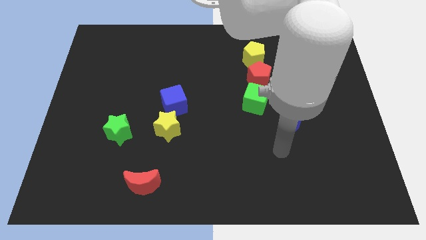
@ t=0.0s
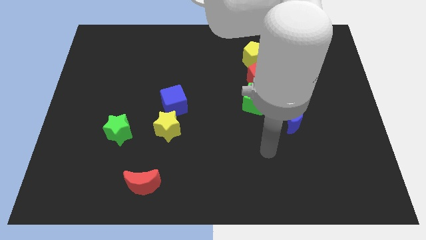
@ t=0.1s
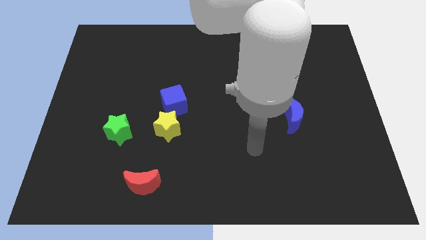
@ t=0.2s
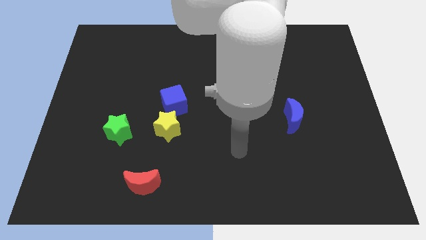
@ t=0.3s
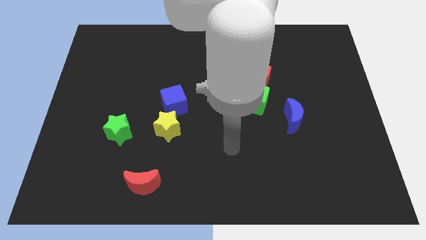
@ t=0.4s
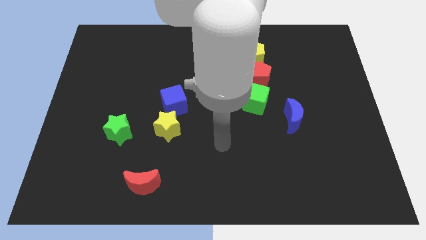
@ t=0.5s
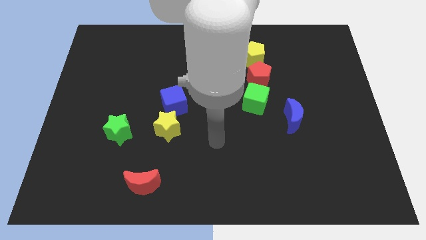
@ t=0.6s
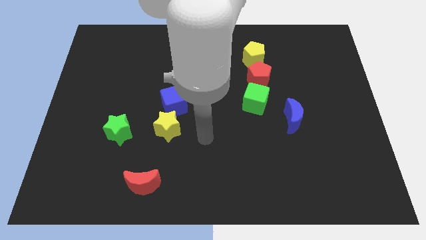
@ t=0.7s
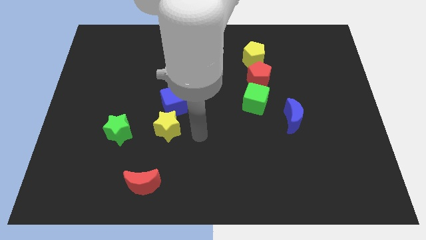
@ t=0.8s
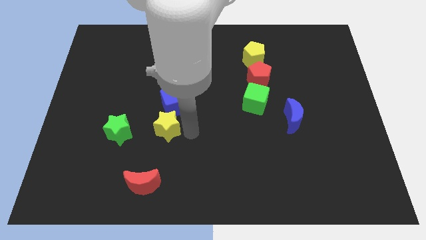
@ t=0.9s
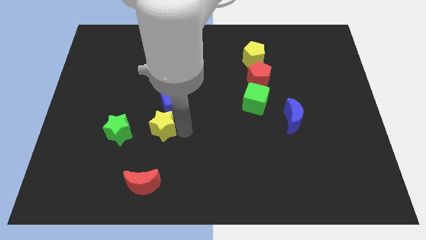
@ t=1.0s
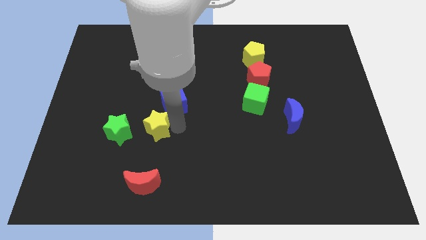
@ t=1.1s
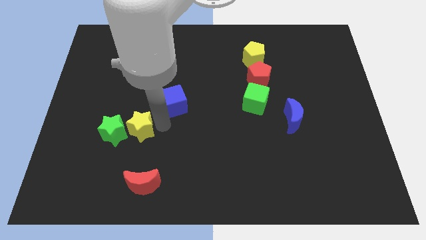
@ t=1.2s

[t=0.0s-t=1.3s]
move the blue cube away from the yellow star

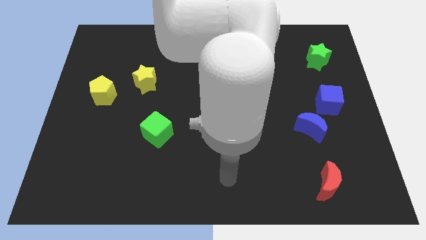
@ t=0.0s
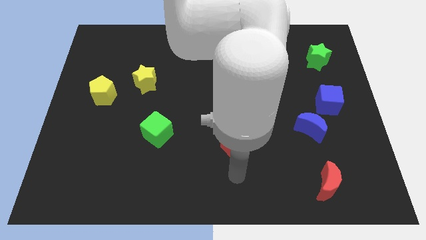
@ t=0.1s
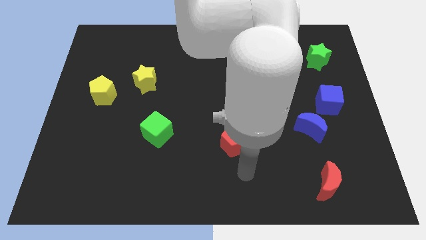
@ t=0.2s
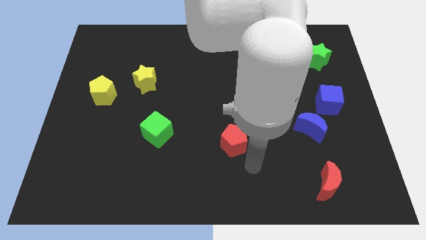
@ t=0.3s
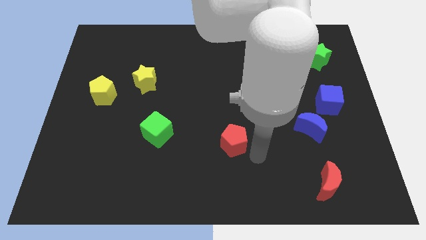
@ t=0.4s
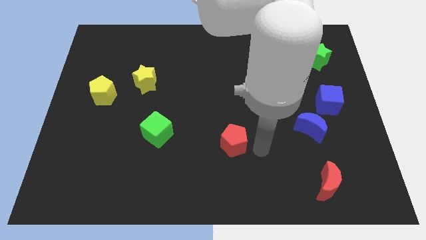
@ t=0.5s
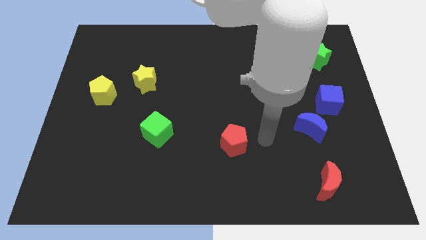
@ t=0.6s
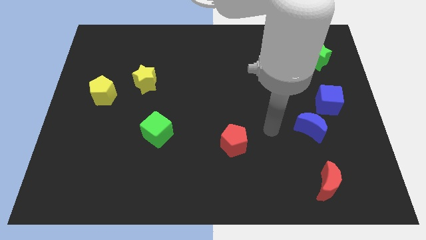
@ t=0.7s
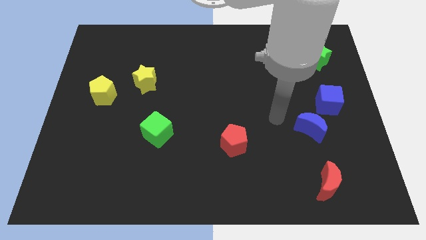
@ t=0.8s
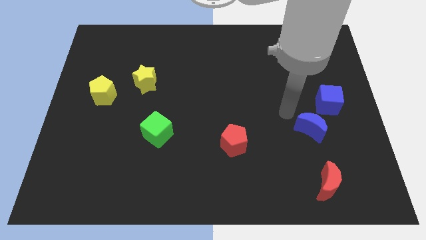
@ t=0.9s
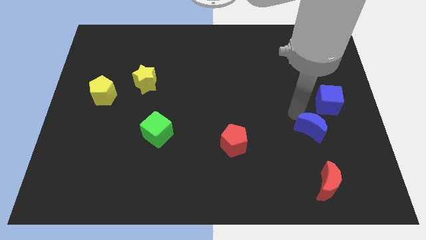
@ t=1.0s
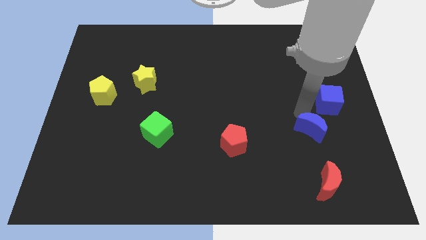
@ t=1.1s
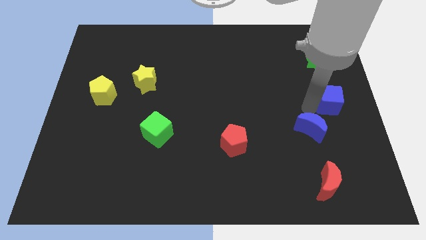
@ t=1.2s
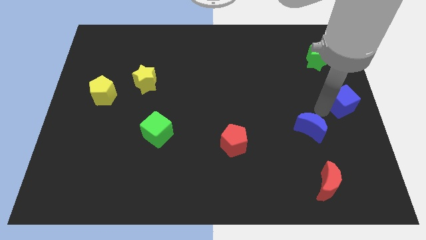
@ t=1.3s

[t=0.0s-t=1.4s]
separate the blue moon from the blue cube

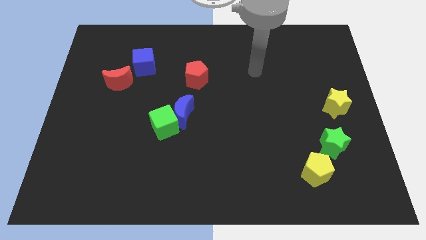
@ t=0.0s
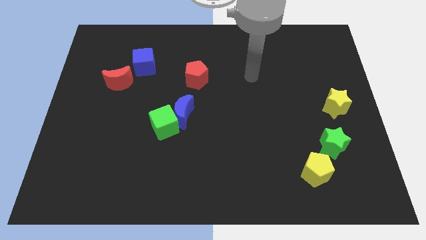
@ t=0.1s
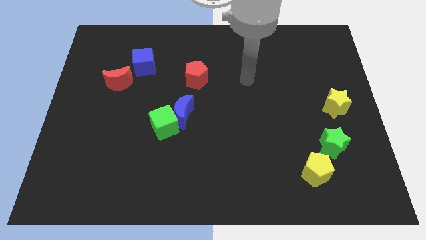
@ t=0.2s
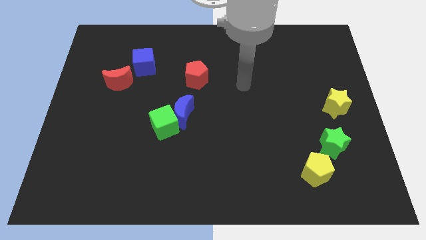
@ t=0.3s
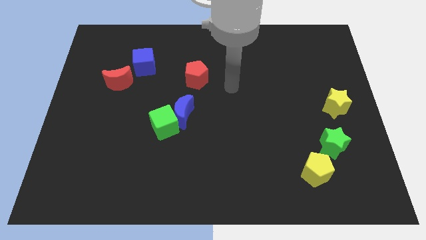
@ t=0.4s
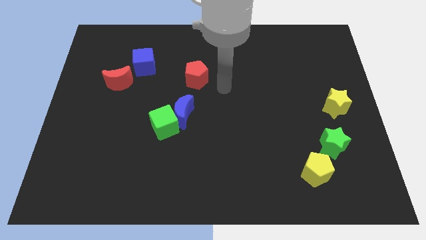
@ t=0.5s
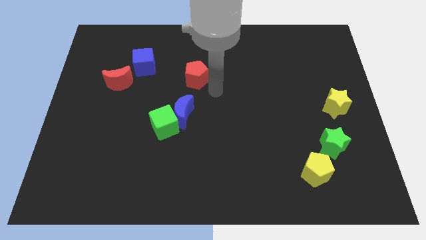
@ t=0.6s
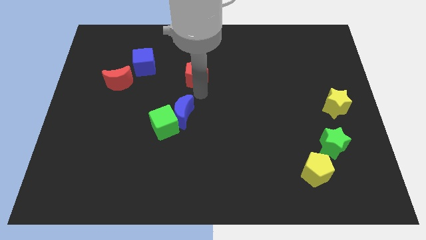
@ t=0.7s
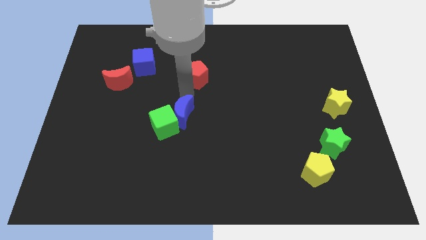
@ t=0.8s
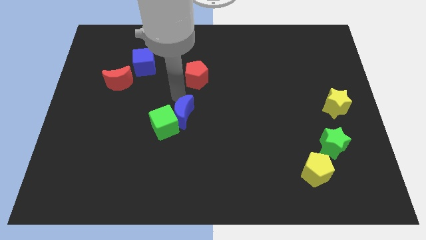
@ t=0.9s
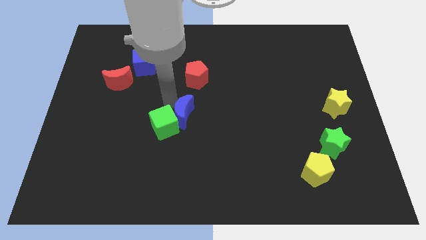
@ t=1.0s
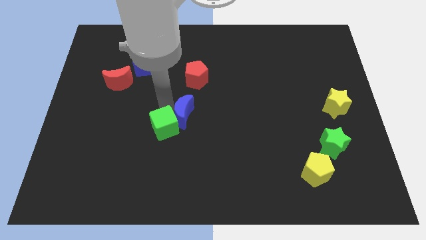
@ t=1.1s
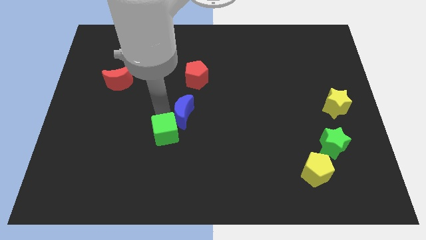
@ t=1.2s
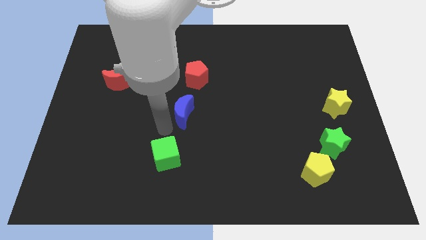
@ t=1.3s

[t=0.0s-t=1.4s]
pull the blue moon apart from the green cube

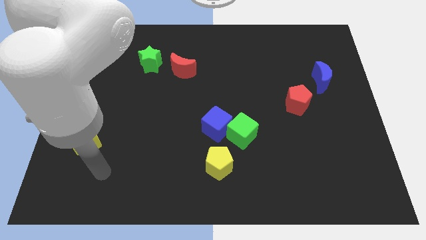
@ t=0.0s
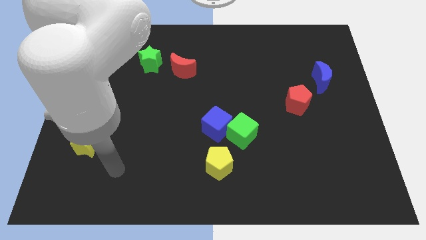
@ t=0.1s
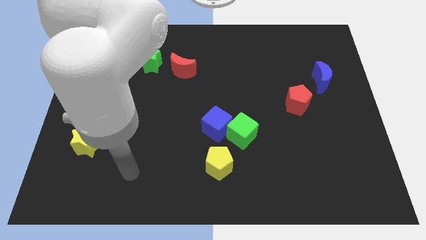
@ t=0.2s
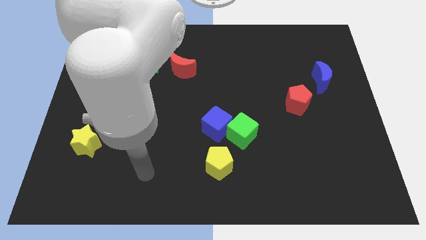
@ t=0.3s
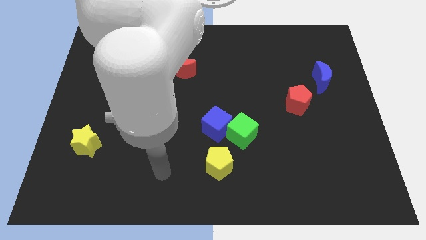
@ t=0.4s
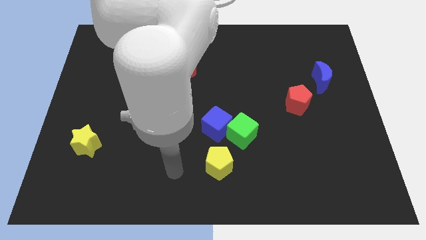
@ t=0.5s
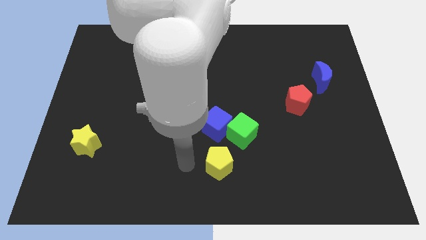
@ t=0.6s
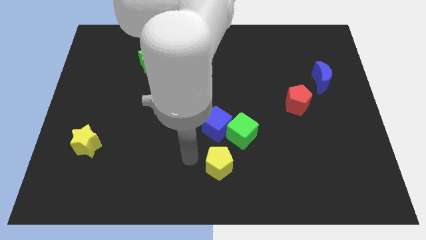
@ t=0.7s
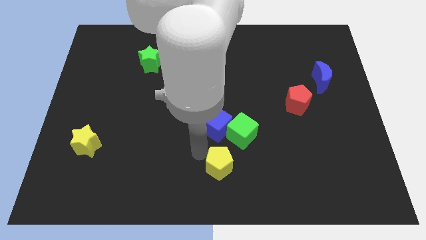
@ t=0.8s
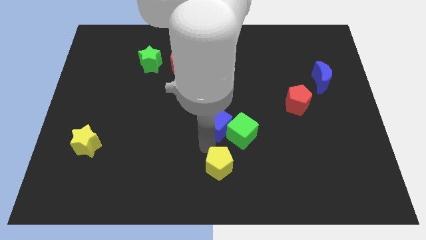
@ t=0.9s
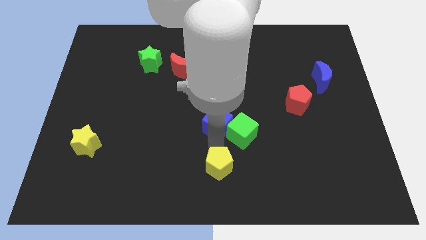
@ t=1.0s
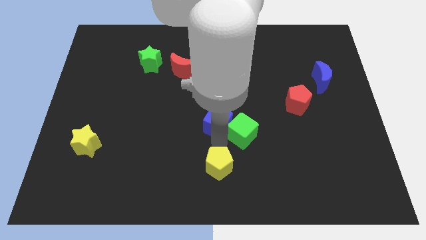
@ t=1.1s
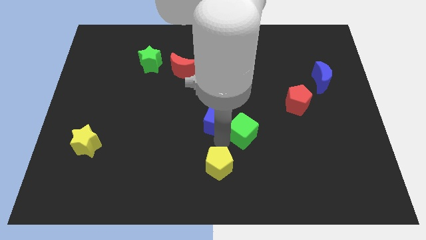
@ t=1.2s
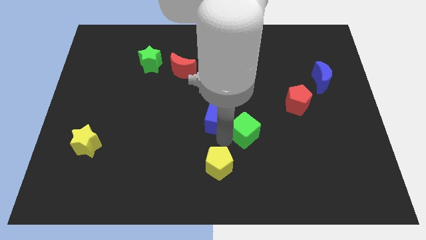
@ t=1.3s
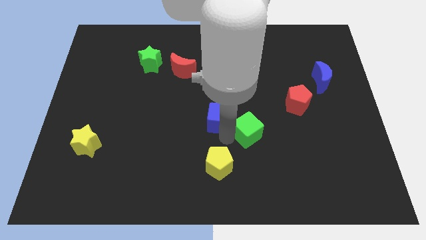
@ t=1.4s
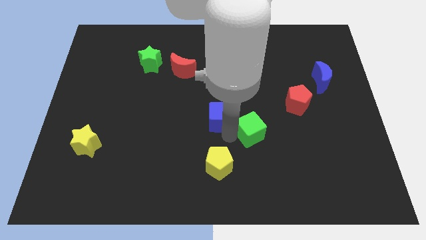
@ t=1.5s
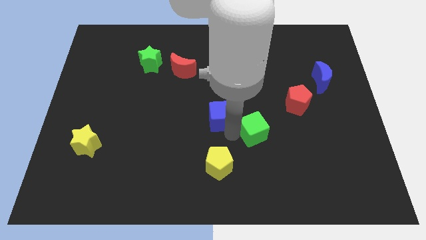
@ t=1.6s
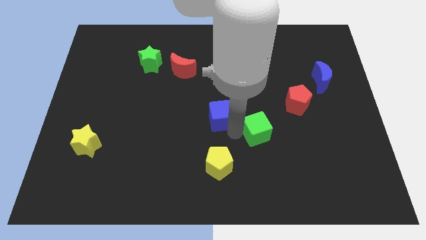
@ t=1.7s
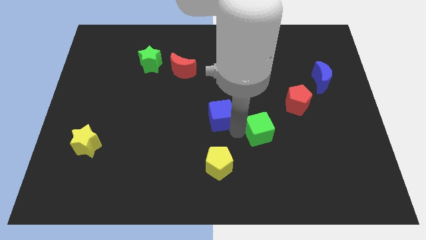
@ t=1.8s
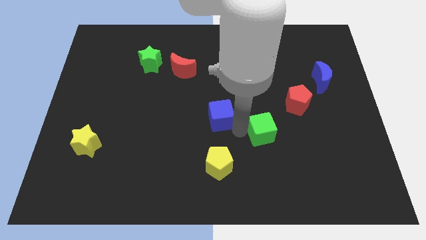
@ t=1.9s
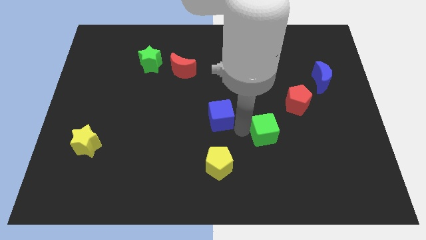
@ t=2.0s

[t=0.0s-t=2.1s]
pull the green cube apart from the blue cube and yellow pentagon

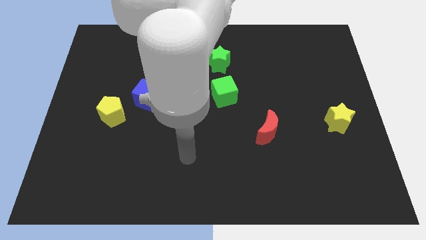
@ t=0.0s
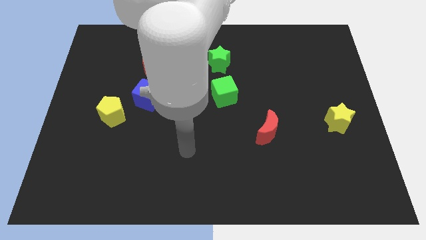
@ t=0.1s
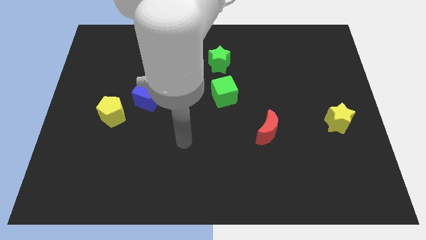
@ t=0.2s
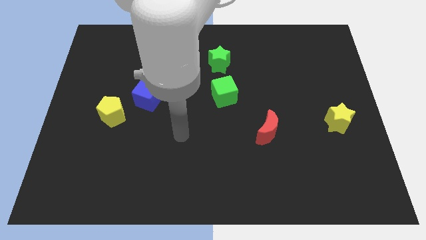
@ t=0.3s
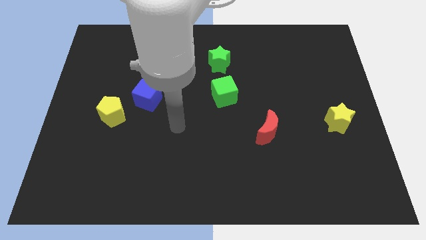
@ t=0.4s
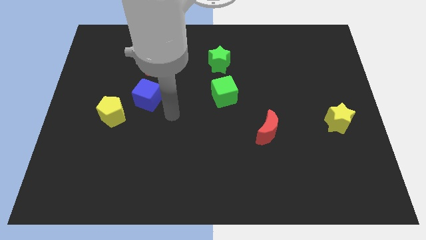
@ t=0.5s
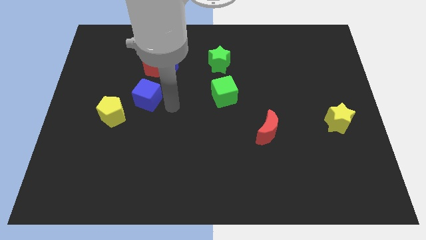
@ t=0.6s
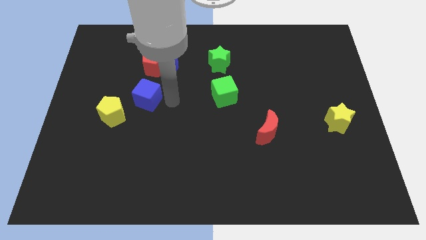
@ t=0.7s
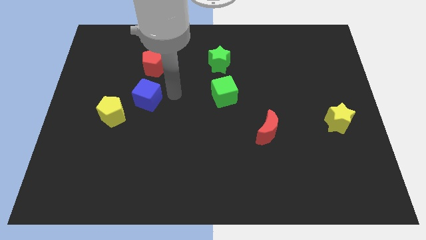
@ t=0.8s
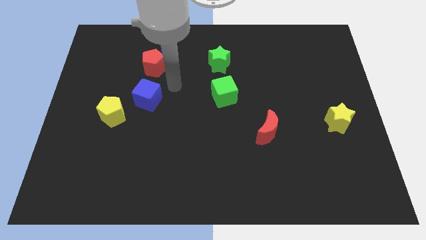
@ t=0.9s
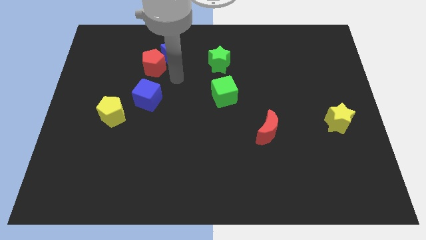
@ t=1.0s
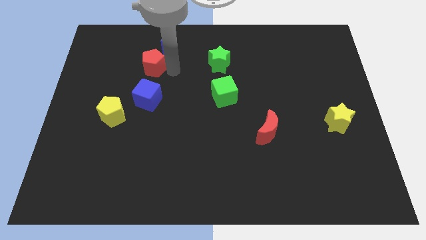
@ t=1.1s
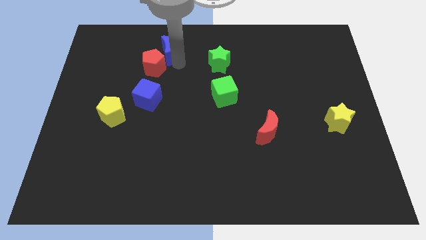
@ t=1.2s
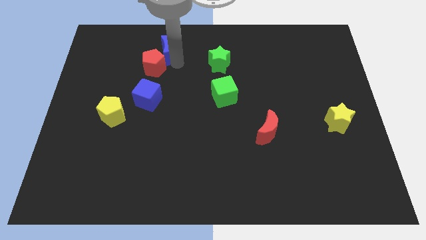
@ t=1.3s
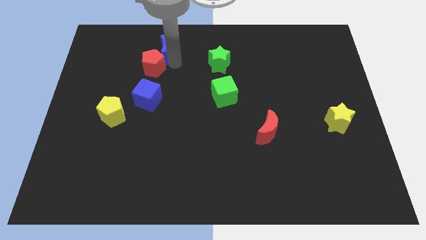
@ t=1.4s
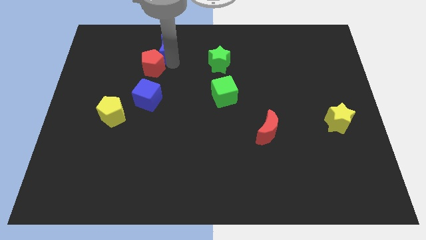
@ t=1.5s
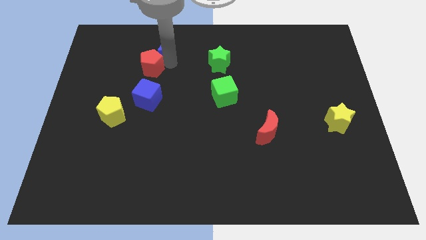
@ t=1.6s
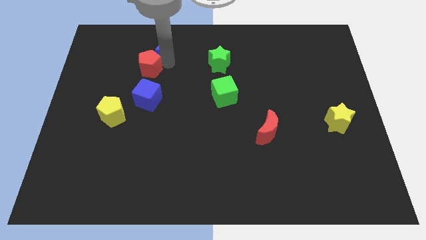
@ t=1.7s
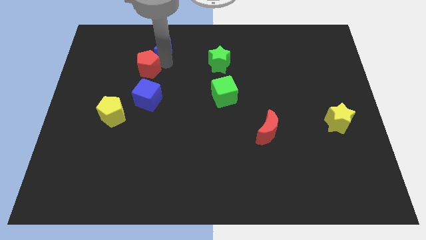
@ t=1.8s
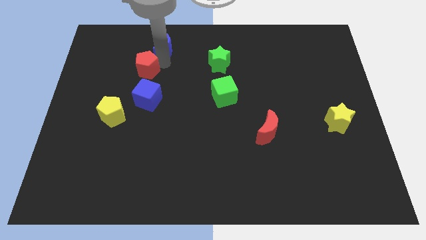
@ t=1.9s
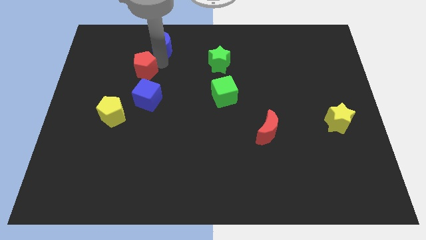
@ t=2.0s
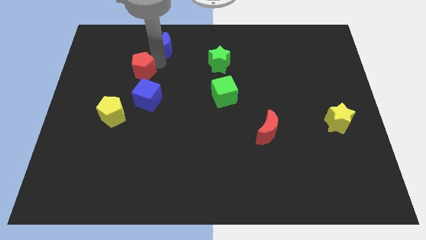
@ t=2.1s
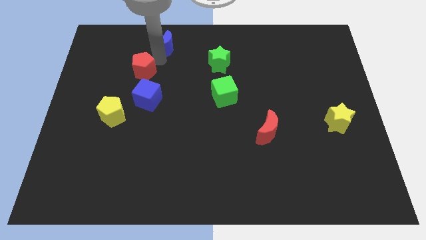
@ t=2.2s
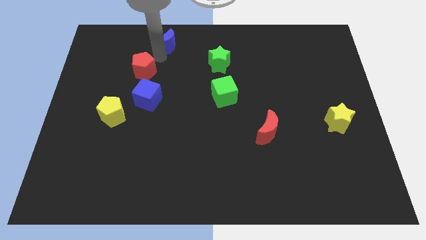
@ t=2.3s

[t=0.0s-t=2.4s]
move the red pentagon away from the blue moon

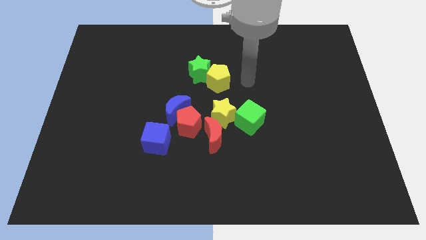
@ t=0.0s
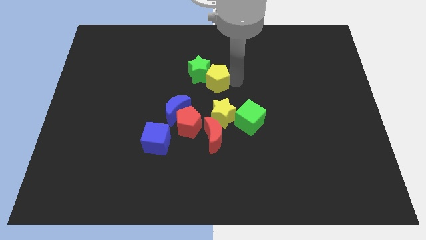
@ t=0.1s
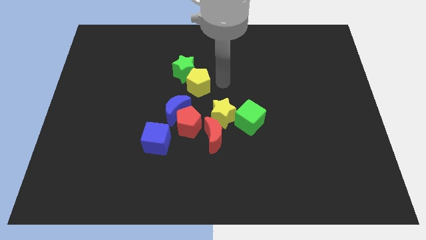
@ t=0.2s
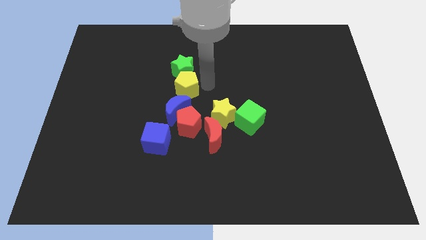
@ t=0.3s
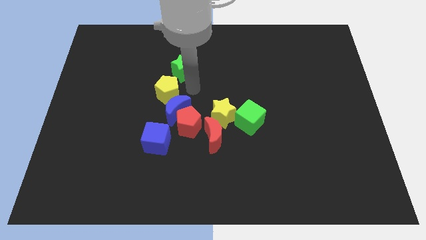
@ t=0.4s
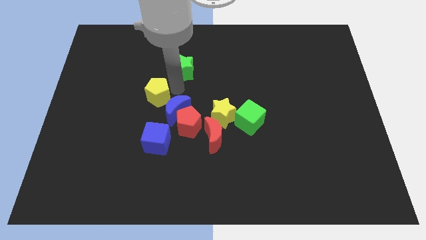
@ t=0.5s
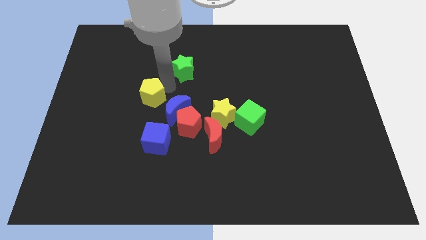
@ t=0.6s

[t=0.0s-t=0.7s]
separate the green star from the yellow pentagon

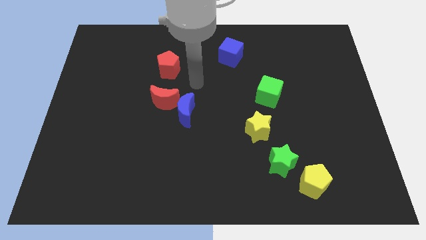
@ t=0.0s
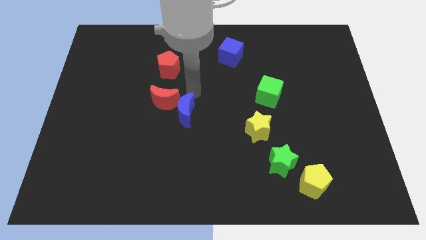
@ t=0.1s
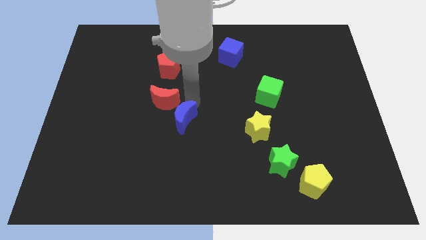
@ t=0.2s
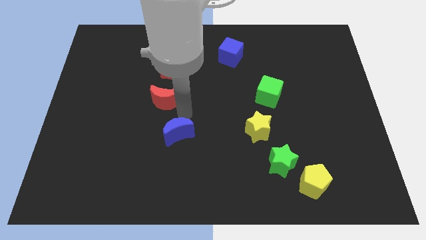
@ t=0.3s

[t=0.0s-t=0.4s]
move the red moon away from the blue moon
